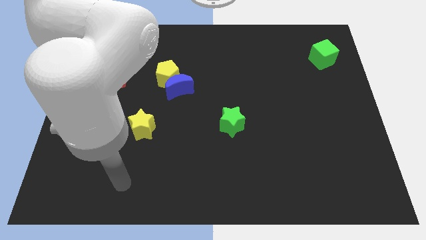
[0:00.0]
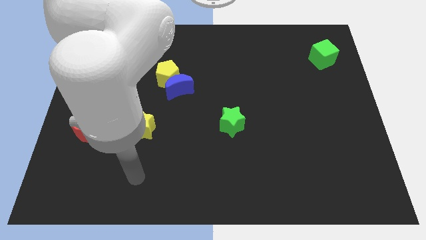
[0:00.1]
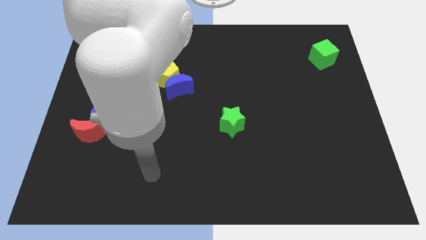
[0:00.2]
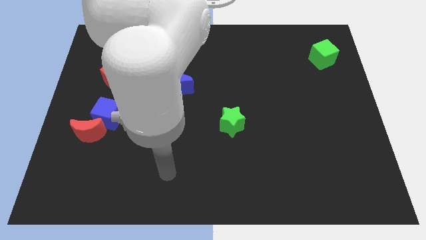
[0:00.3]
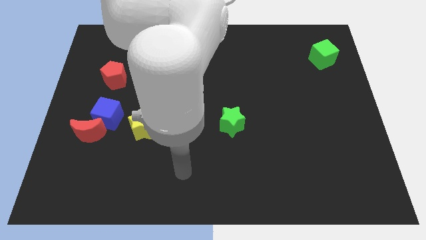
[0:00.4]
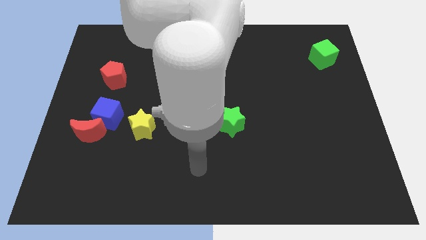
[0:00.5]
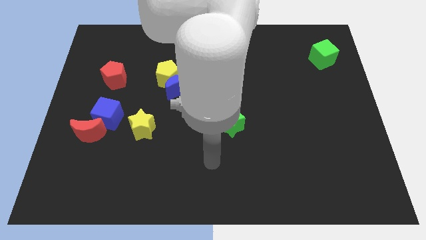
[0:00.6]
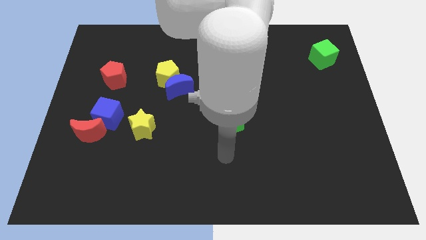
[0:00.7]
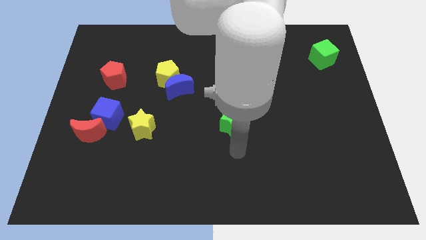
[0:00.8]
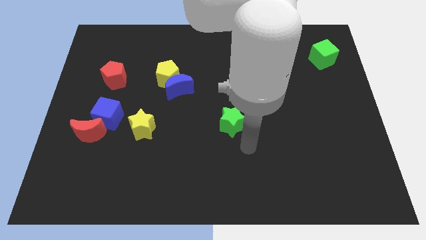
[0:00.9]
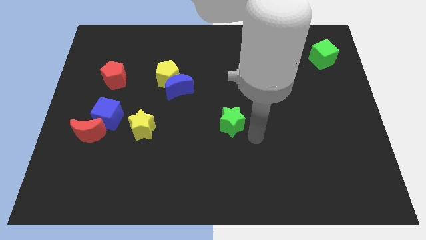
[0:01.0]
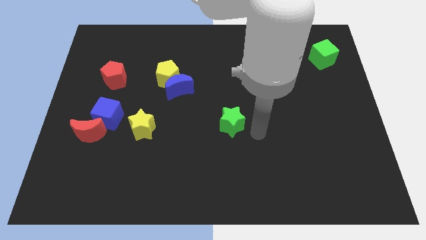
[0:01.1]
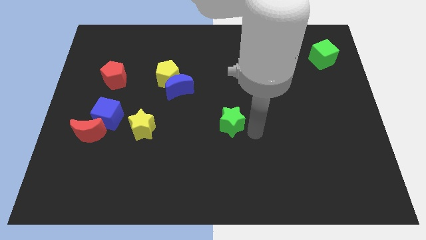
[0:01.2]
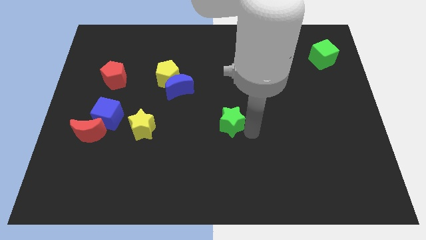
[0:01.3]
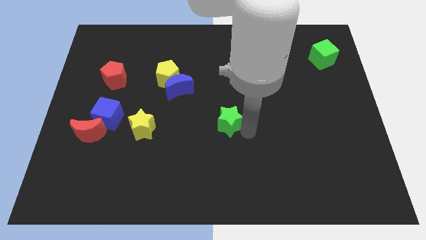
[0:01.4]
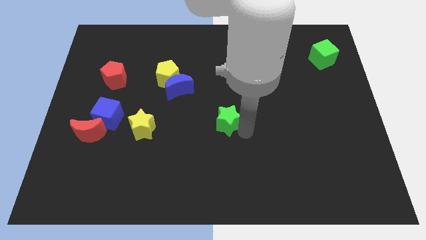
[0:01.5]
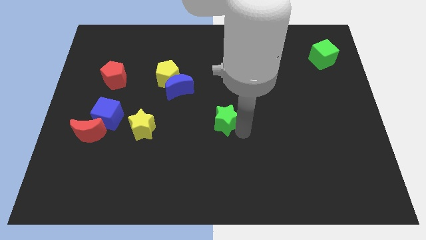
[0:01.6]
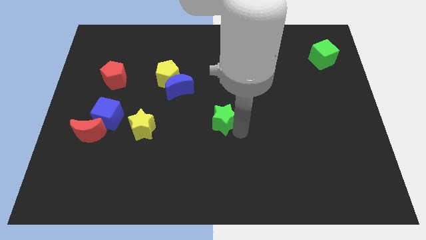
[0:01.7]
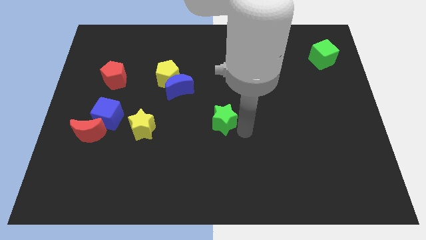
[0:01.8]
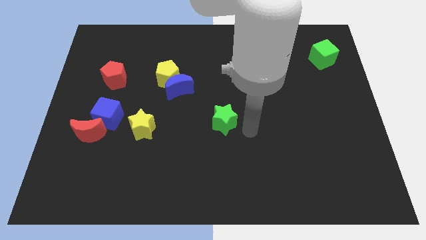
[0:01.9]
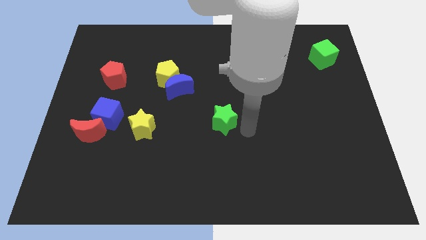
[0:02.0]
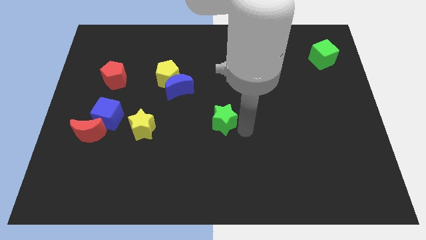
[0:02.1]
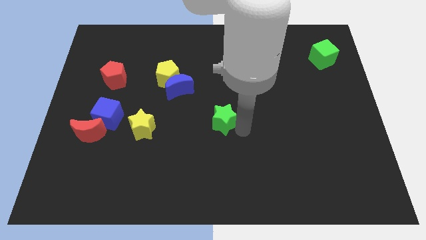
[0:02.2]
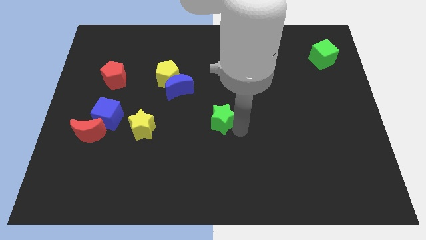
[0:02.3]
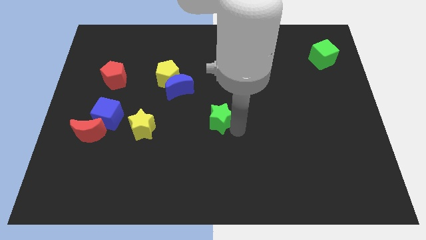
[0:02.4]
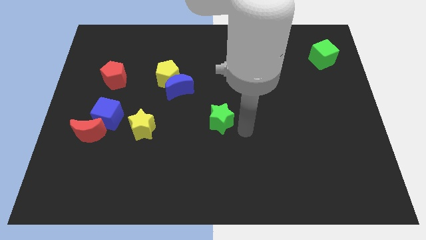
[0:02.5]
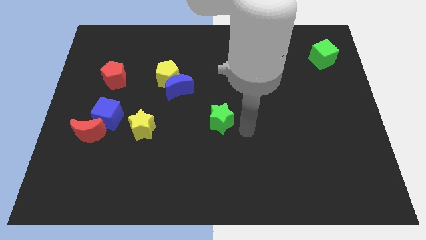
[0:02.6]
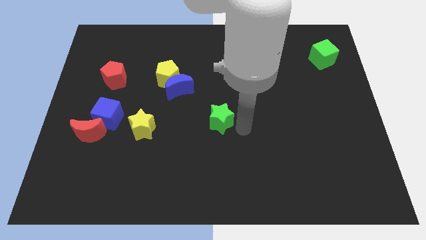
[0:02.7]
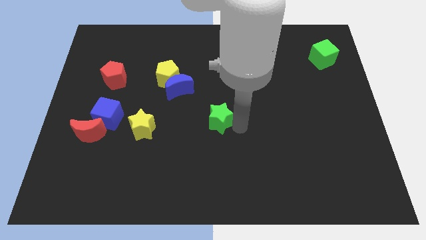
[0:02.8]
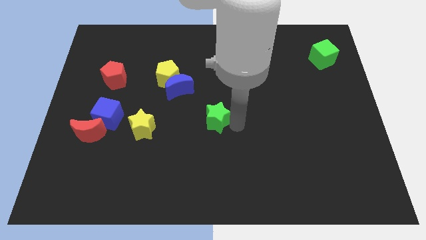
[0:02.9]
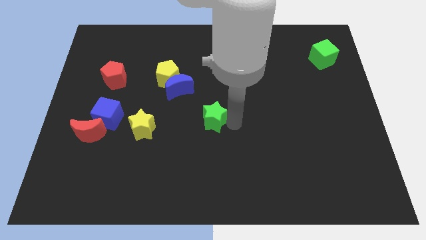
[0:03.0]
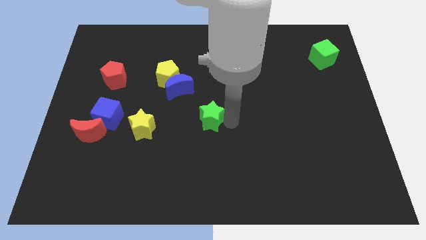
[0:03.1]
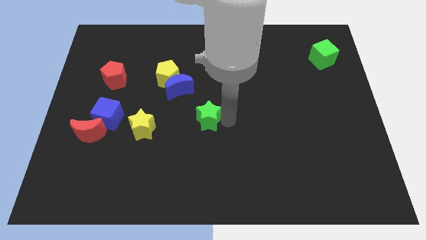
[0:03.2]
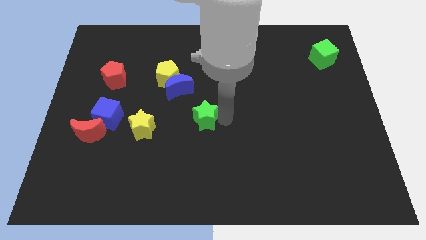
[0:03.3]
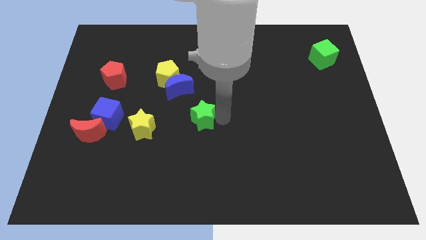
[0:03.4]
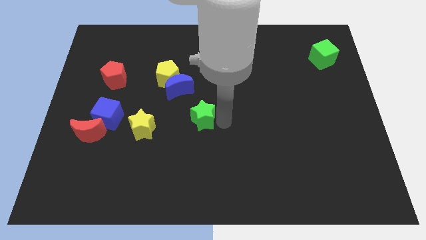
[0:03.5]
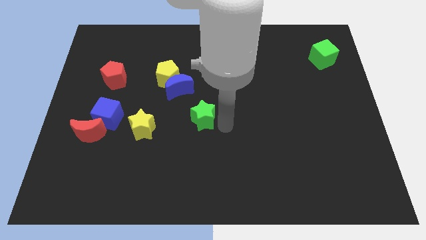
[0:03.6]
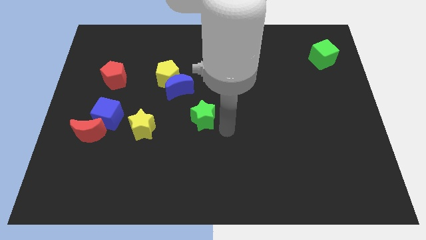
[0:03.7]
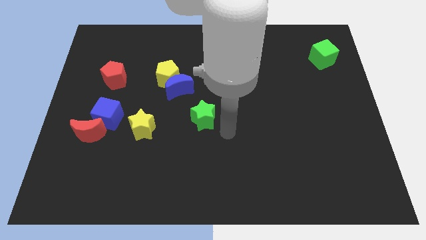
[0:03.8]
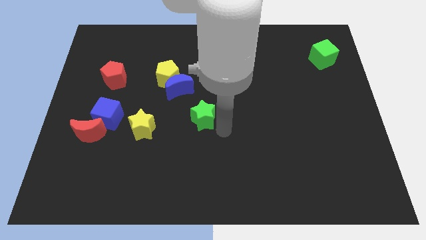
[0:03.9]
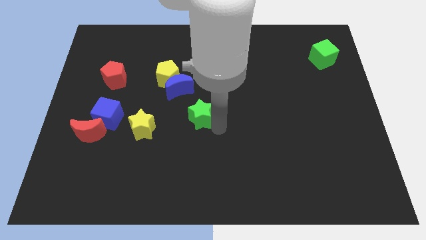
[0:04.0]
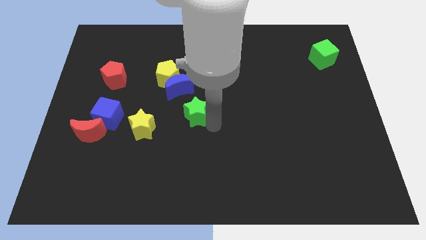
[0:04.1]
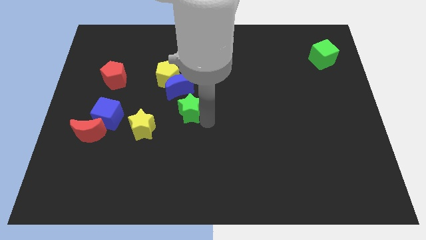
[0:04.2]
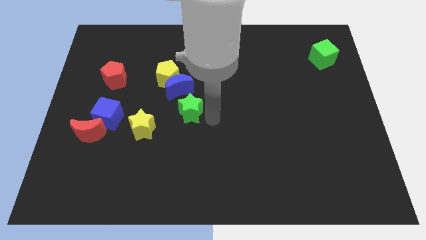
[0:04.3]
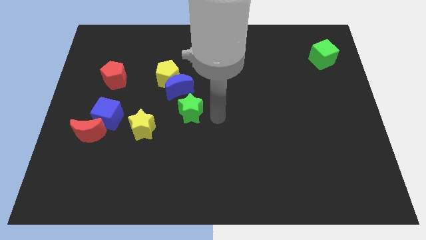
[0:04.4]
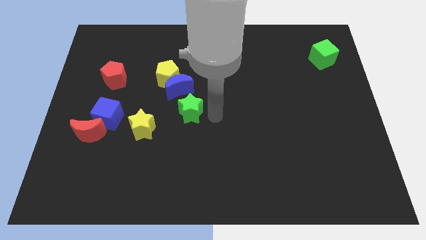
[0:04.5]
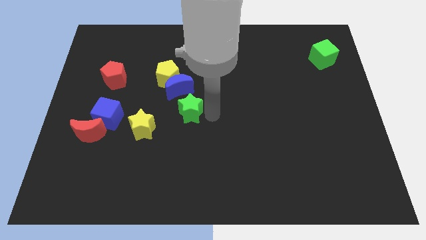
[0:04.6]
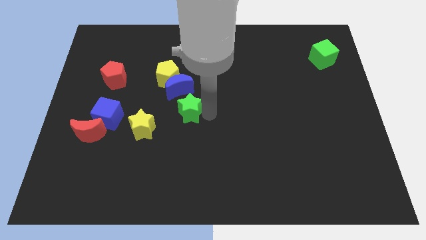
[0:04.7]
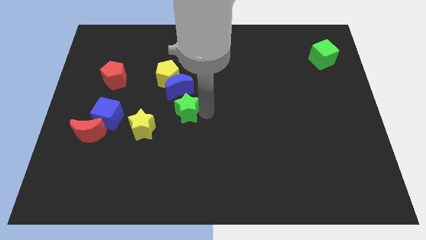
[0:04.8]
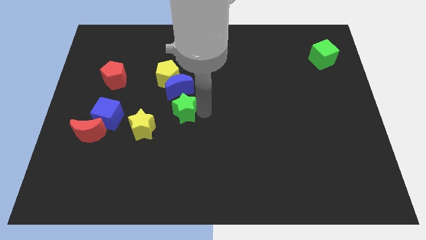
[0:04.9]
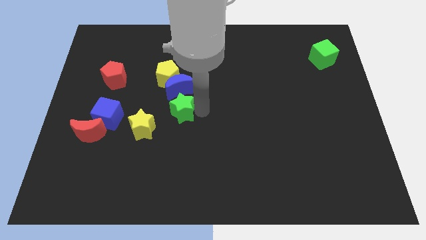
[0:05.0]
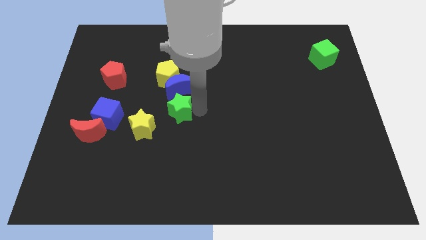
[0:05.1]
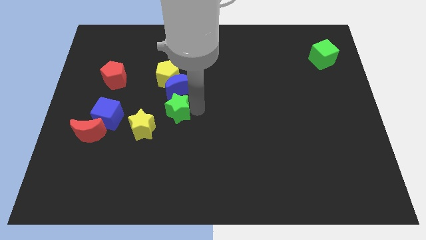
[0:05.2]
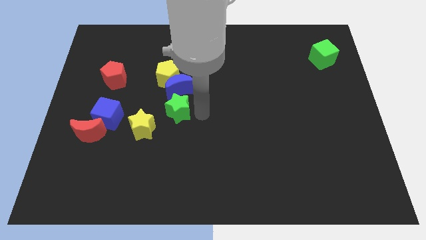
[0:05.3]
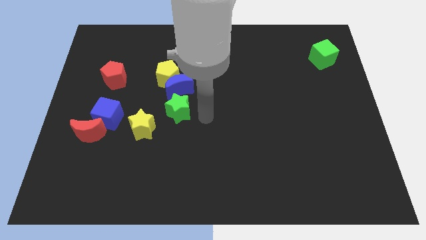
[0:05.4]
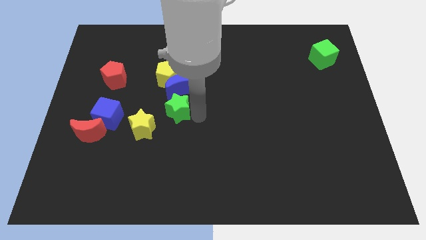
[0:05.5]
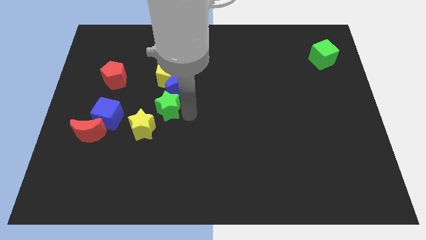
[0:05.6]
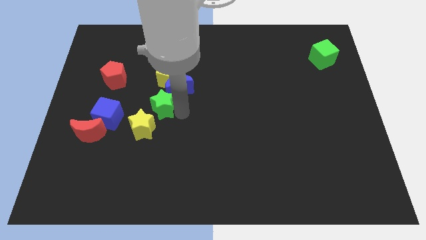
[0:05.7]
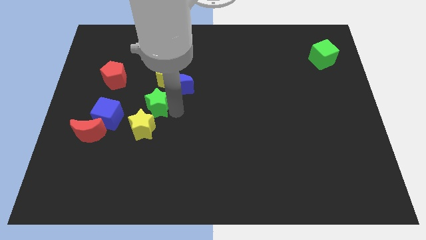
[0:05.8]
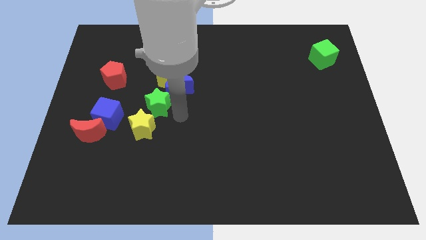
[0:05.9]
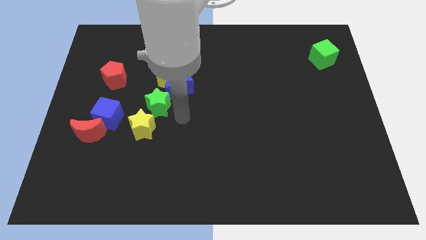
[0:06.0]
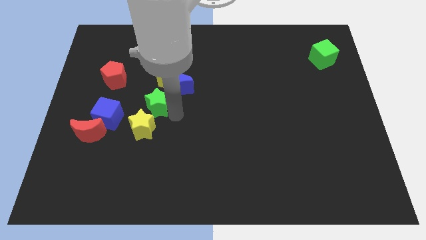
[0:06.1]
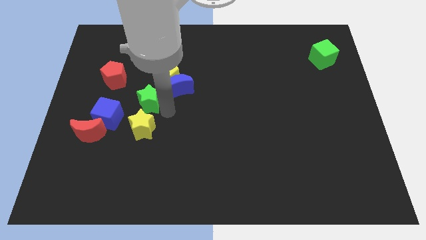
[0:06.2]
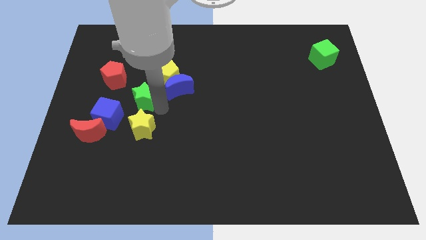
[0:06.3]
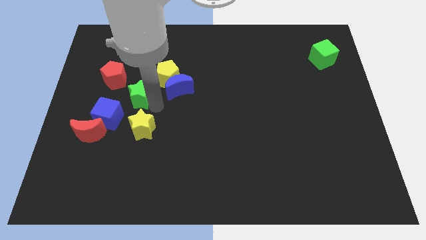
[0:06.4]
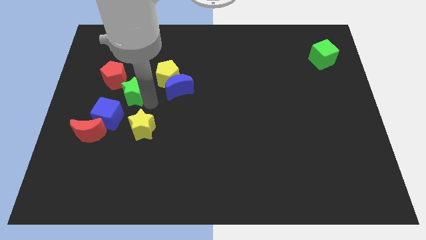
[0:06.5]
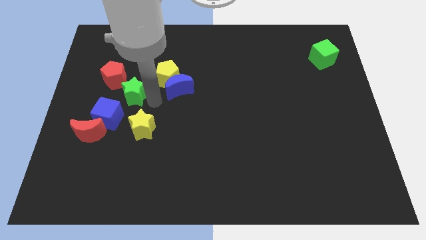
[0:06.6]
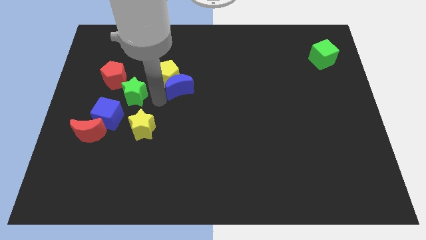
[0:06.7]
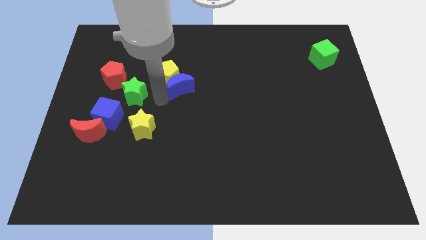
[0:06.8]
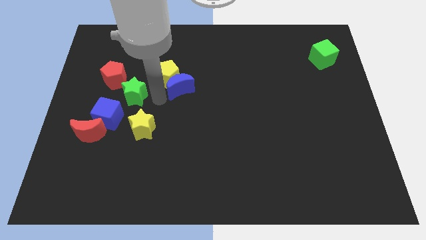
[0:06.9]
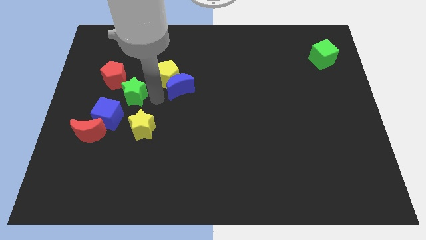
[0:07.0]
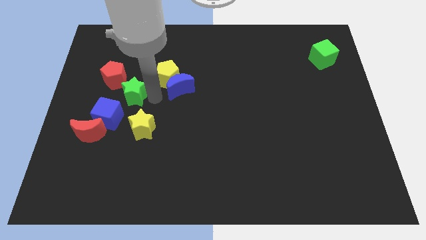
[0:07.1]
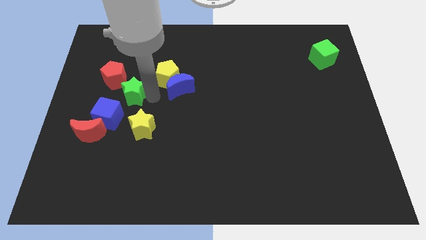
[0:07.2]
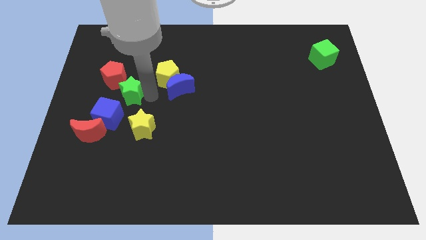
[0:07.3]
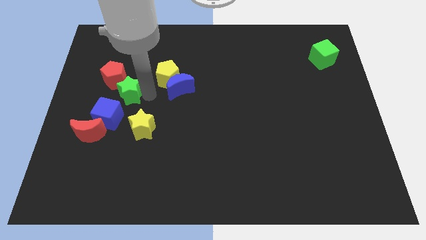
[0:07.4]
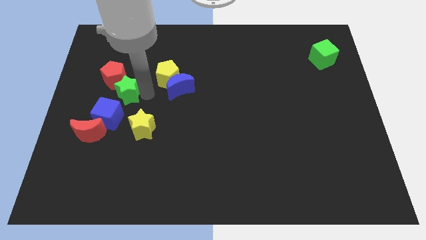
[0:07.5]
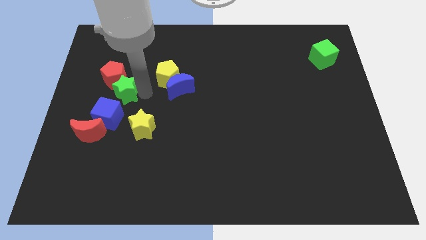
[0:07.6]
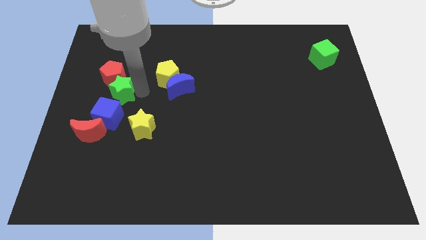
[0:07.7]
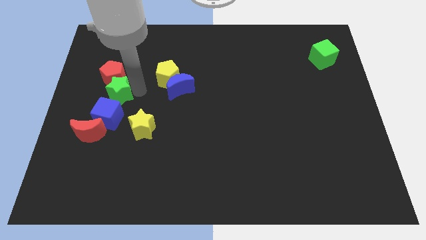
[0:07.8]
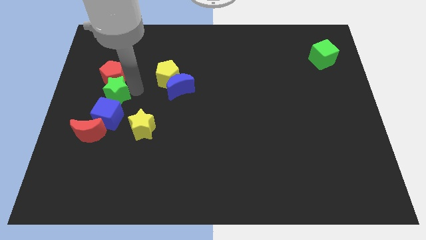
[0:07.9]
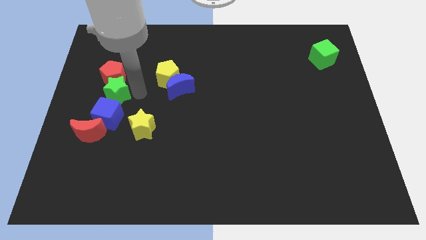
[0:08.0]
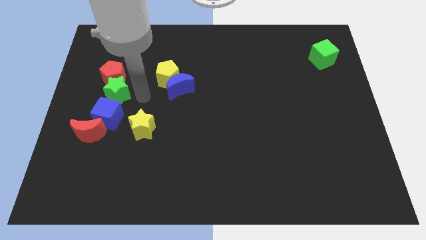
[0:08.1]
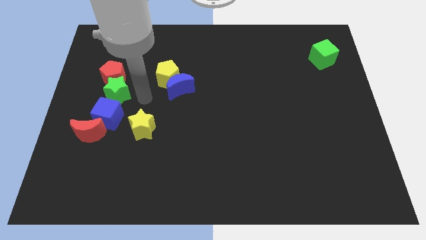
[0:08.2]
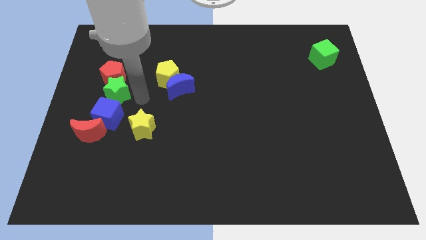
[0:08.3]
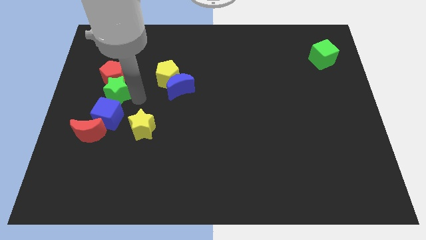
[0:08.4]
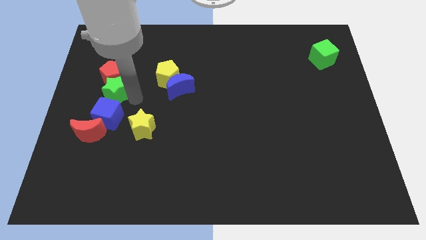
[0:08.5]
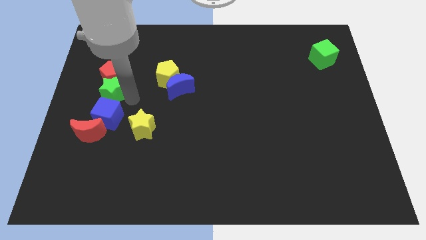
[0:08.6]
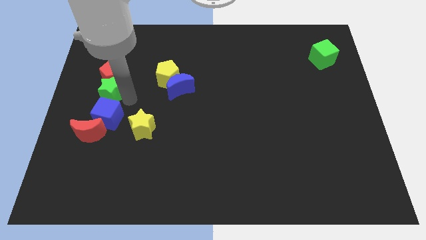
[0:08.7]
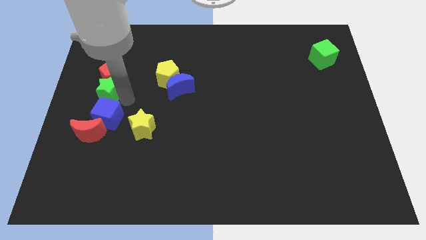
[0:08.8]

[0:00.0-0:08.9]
push the green star to the left side
